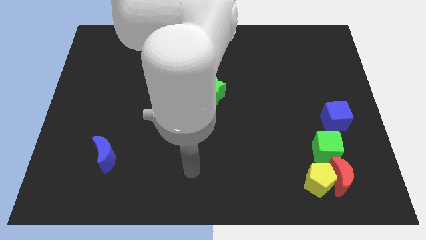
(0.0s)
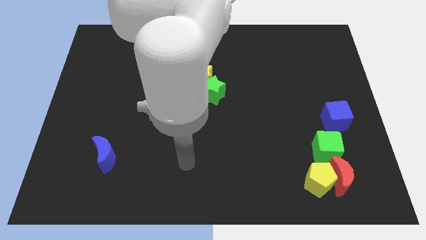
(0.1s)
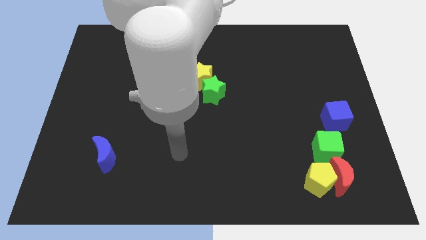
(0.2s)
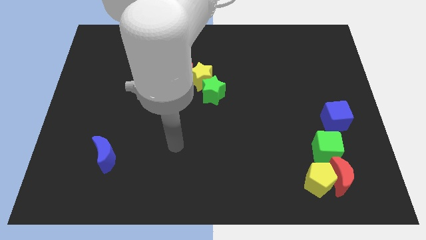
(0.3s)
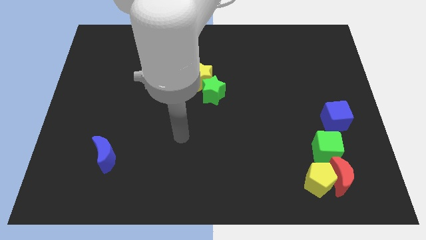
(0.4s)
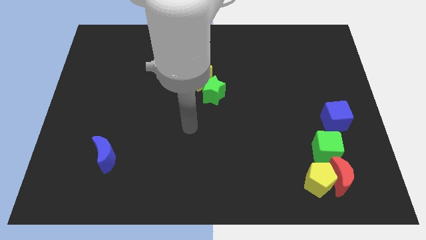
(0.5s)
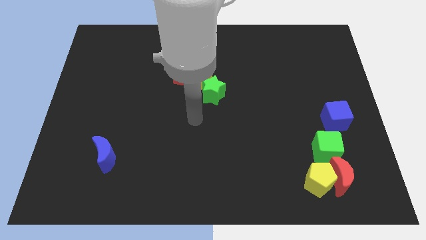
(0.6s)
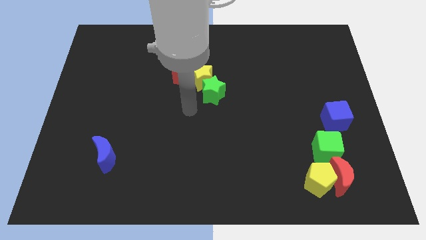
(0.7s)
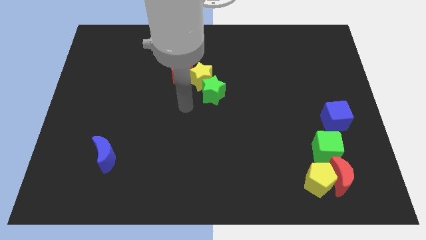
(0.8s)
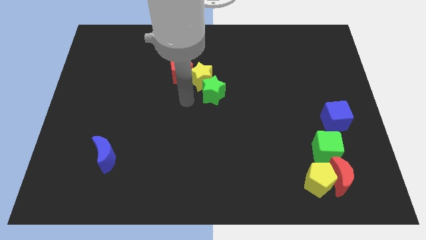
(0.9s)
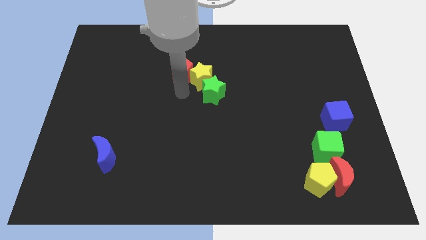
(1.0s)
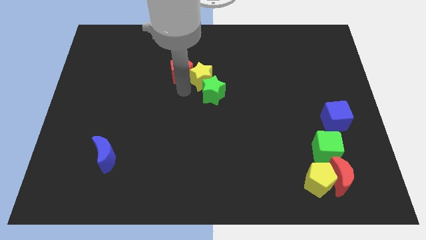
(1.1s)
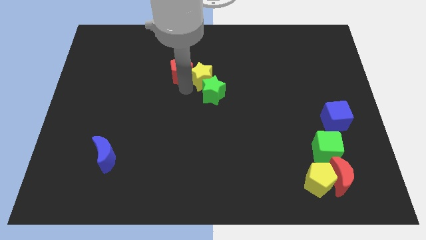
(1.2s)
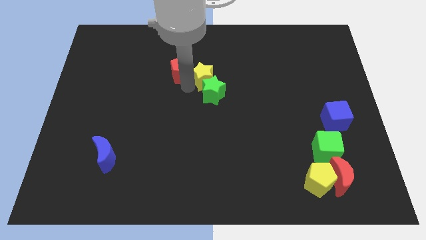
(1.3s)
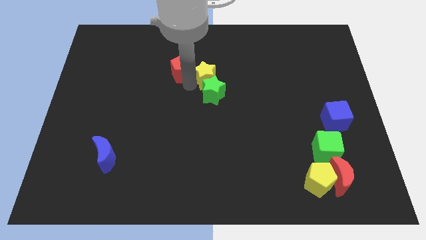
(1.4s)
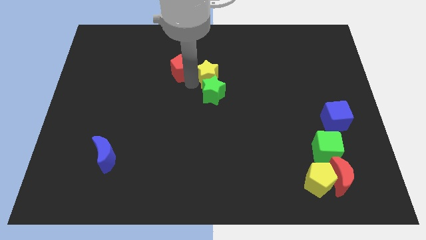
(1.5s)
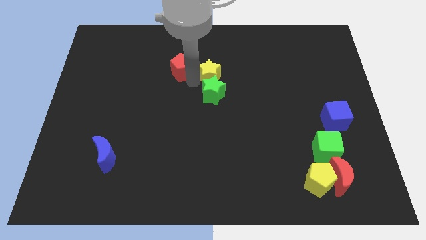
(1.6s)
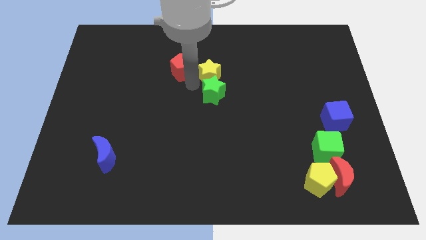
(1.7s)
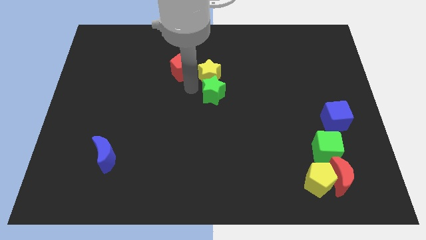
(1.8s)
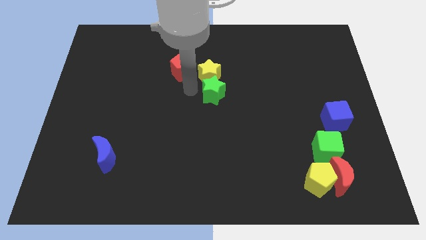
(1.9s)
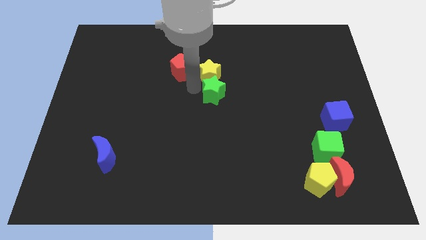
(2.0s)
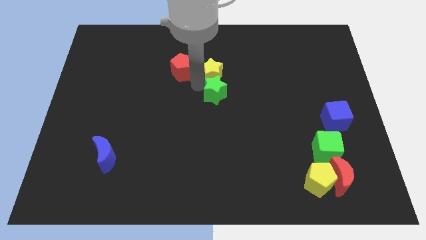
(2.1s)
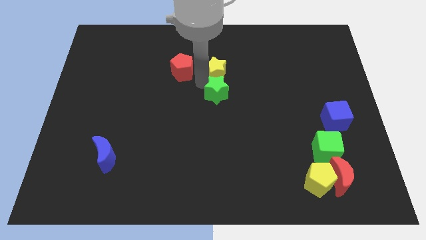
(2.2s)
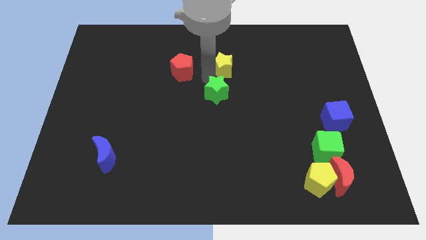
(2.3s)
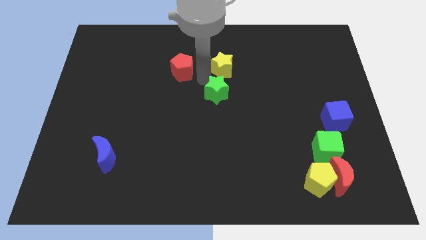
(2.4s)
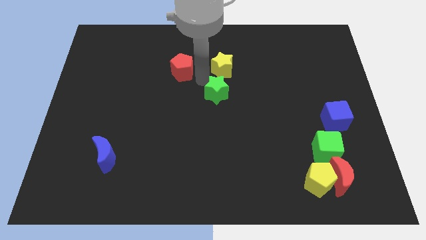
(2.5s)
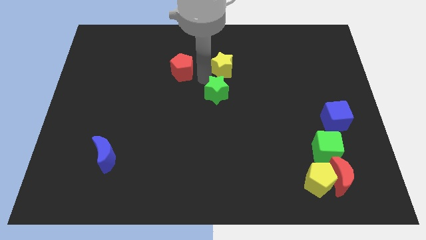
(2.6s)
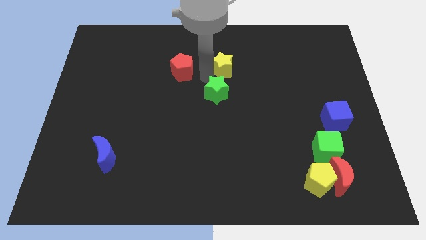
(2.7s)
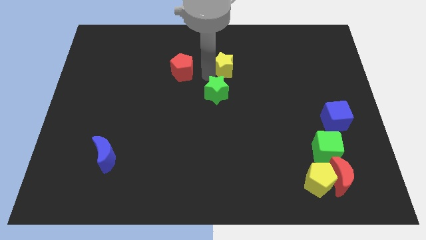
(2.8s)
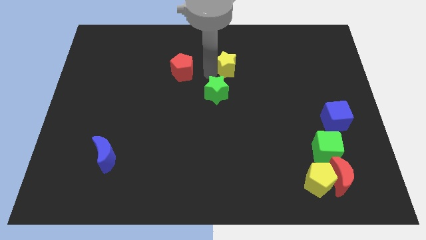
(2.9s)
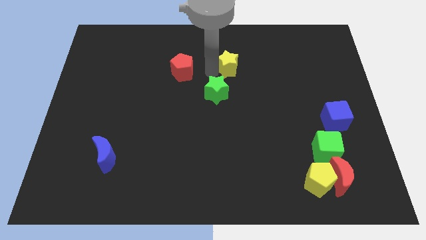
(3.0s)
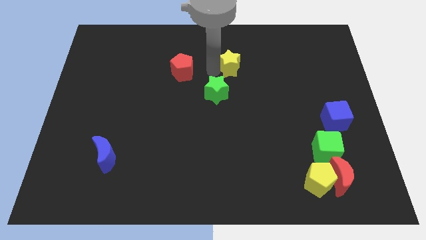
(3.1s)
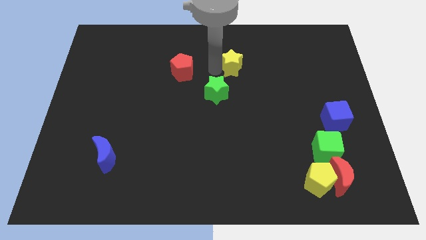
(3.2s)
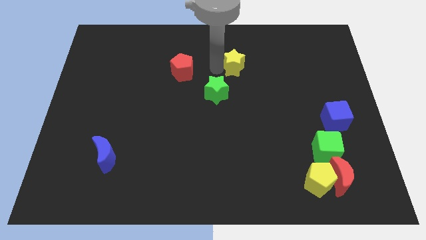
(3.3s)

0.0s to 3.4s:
pull the yellow star apart from the green star and red pentagon

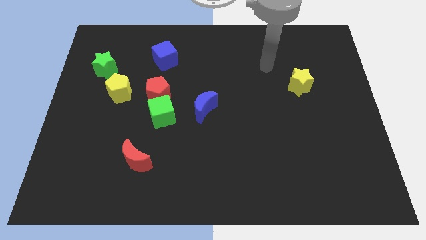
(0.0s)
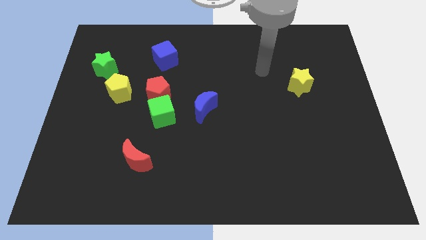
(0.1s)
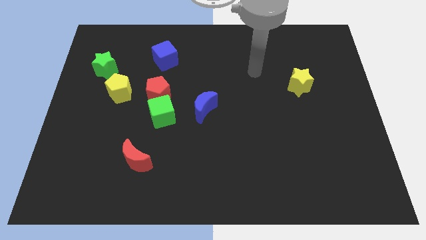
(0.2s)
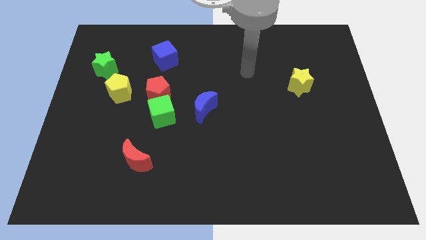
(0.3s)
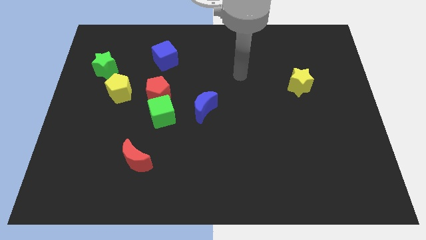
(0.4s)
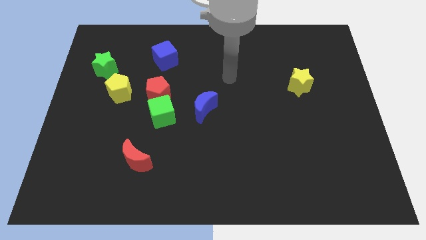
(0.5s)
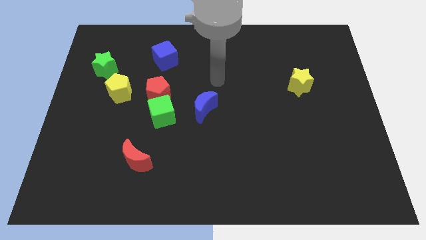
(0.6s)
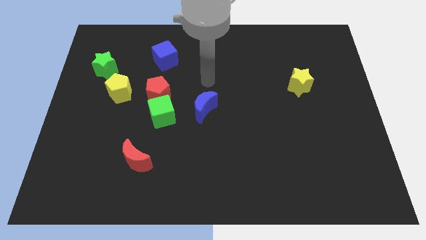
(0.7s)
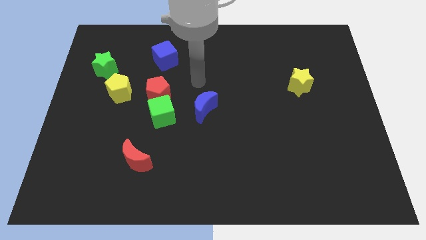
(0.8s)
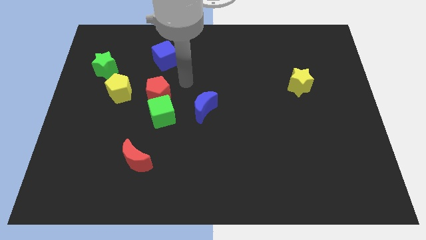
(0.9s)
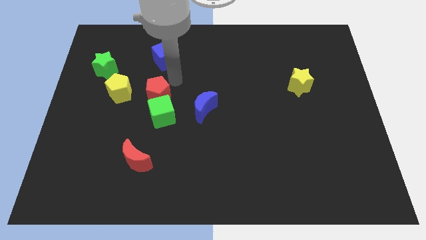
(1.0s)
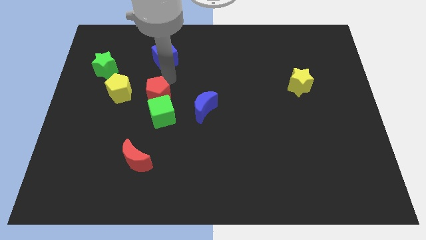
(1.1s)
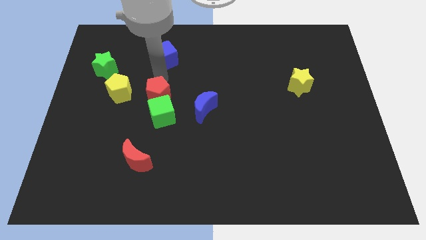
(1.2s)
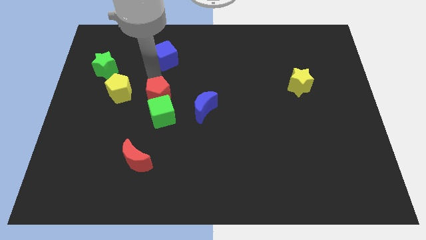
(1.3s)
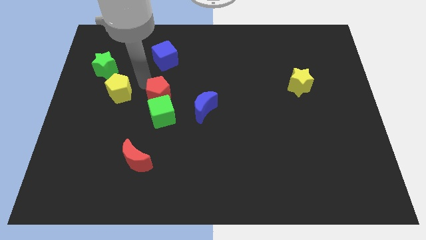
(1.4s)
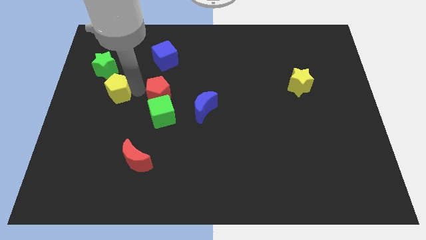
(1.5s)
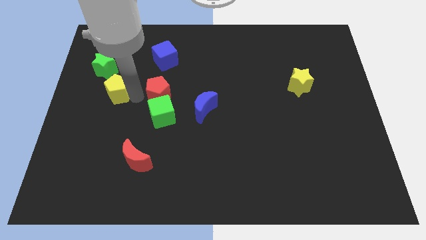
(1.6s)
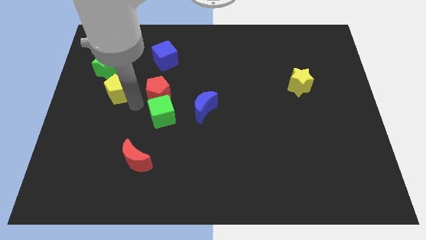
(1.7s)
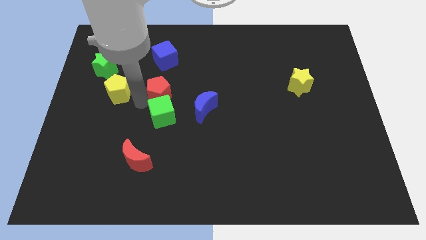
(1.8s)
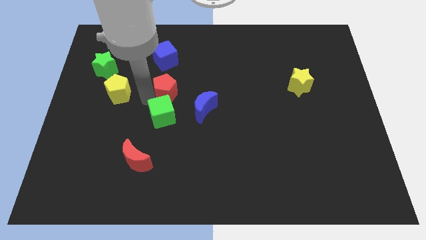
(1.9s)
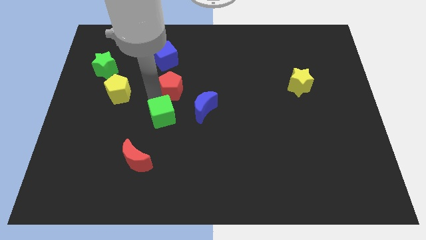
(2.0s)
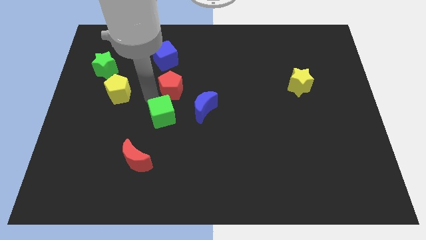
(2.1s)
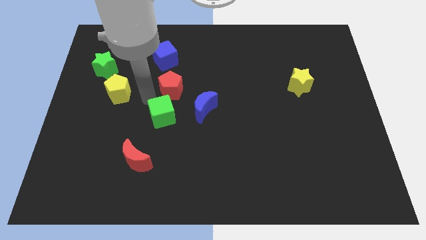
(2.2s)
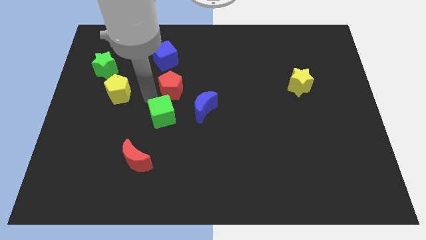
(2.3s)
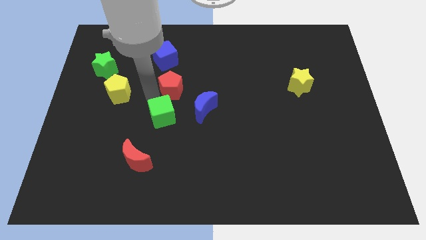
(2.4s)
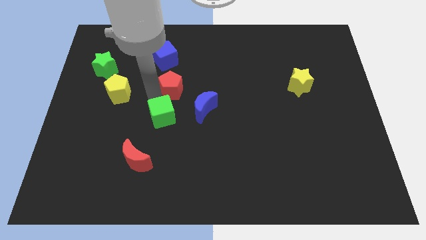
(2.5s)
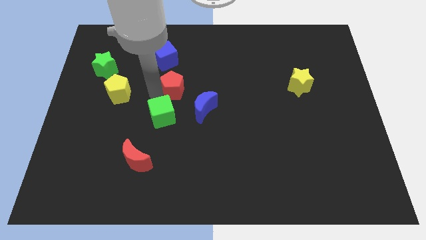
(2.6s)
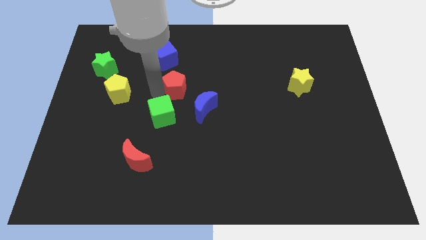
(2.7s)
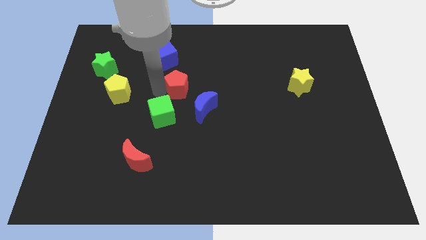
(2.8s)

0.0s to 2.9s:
separate the red pentagon from the green cube and yellow pentagon

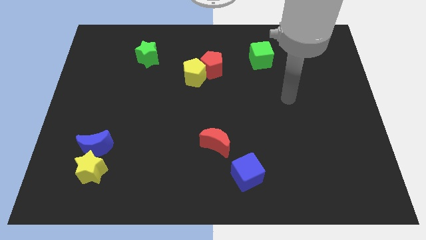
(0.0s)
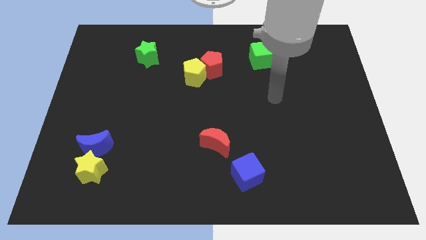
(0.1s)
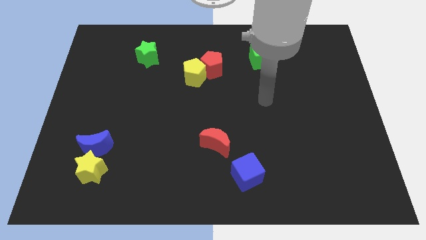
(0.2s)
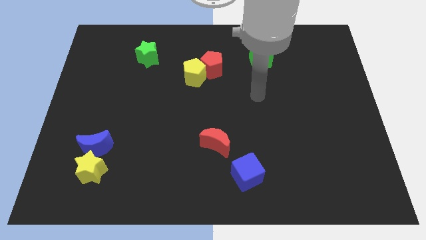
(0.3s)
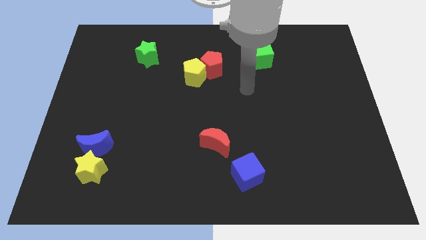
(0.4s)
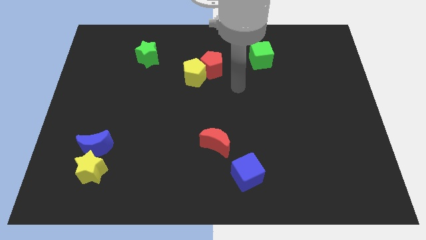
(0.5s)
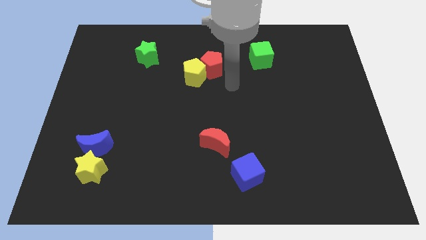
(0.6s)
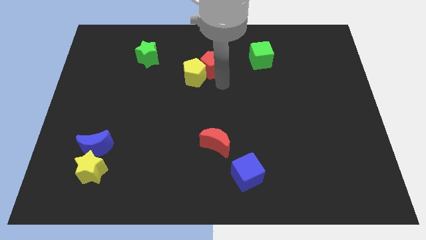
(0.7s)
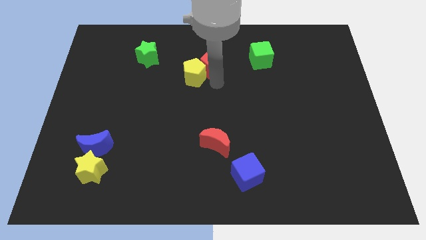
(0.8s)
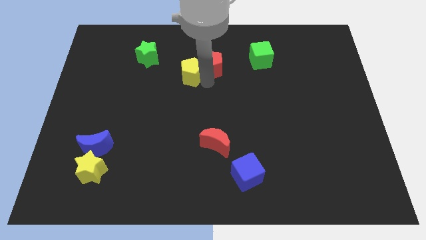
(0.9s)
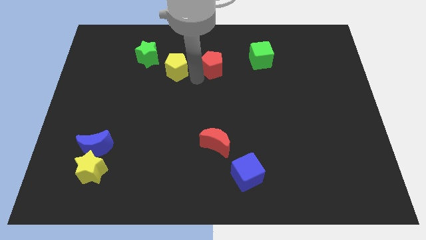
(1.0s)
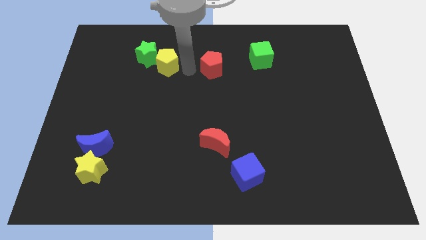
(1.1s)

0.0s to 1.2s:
move the red pentagon away from the yellow pentagon

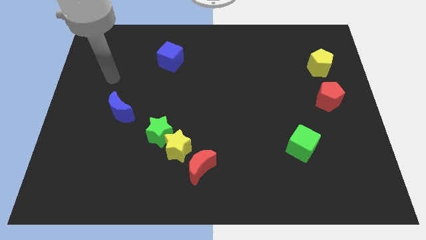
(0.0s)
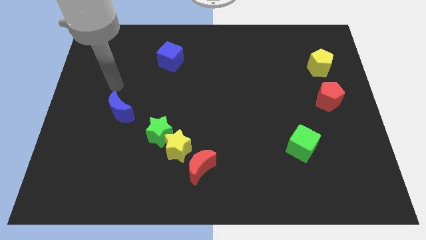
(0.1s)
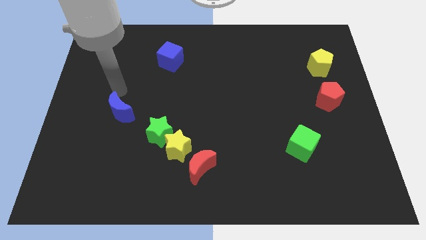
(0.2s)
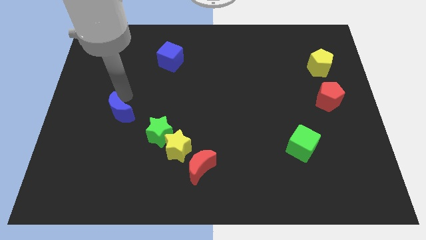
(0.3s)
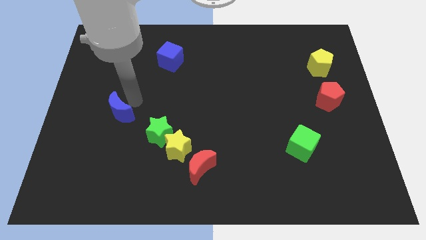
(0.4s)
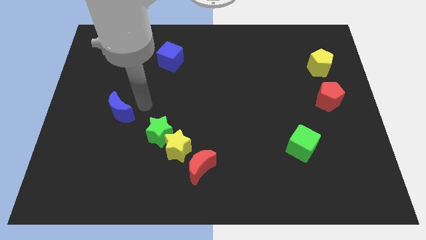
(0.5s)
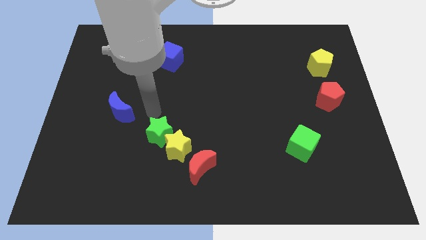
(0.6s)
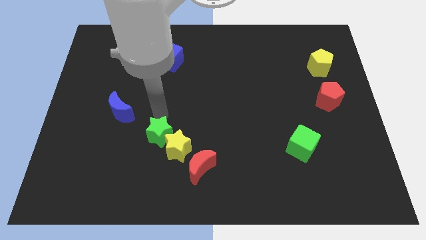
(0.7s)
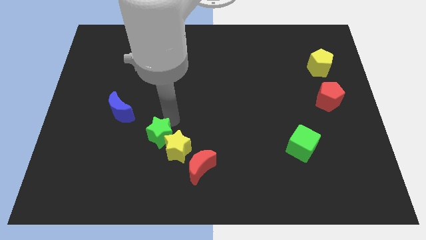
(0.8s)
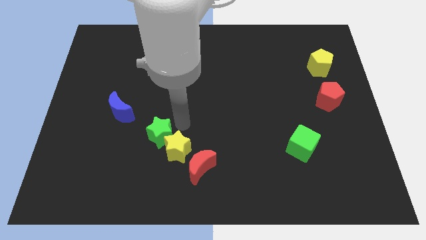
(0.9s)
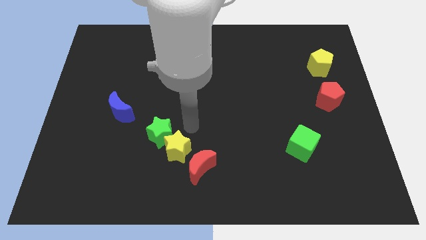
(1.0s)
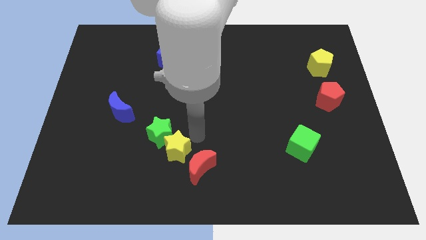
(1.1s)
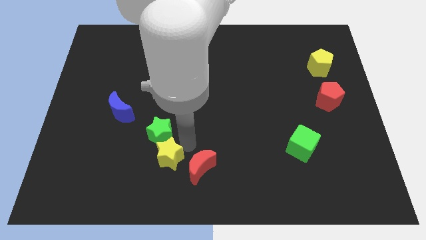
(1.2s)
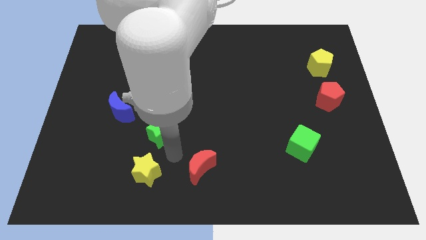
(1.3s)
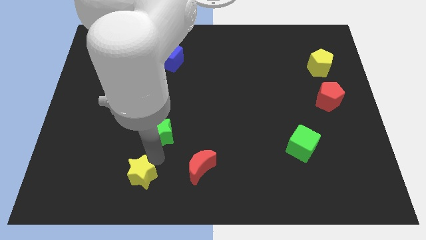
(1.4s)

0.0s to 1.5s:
separate the green star from the yellow star

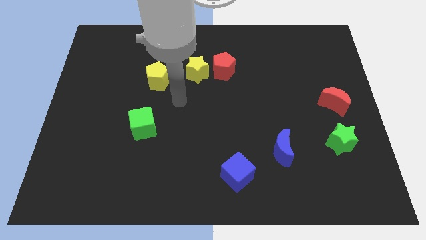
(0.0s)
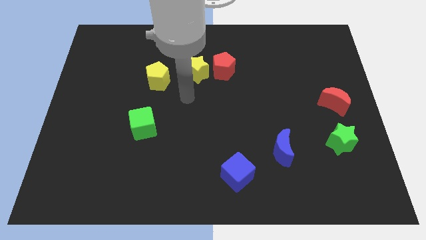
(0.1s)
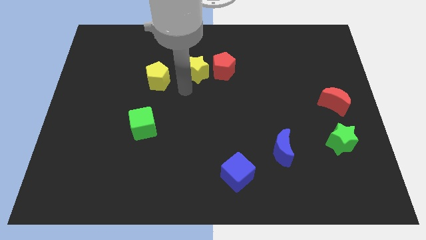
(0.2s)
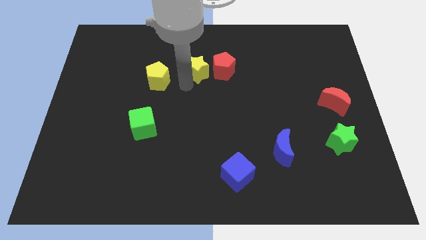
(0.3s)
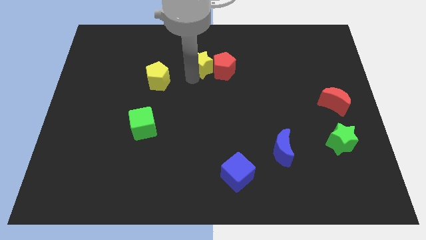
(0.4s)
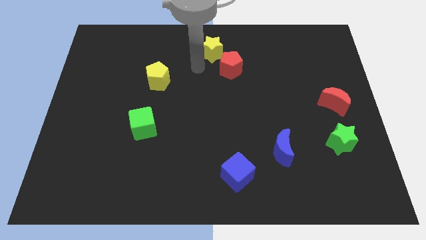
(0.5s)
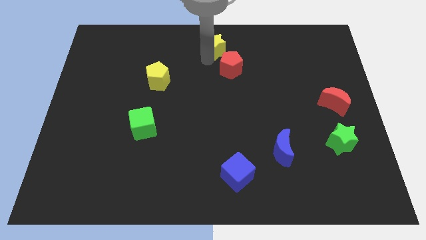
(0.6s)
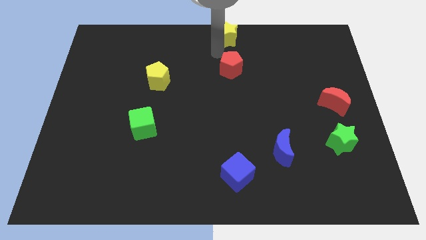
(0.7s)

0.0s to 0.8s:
separate the red pentagon from the yellow star
